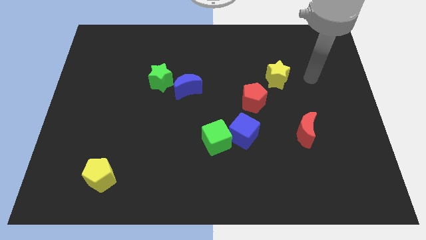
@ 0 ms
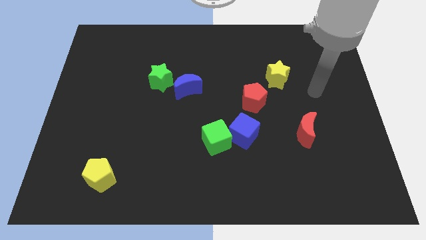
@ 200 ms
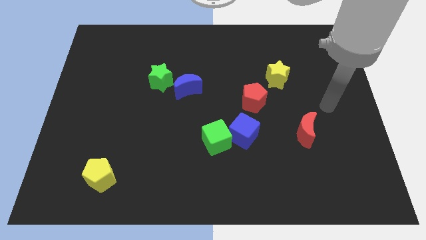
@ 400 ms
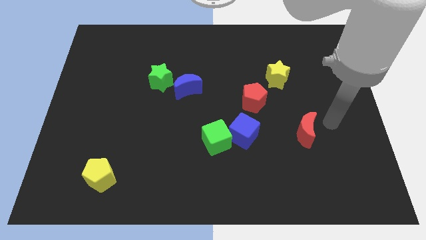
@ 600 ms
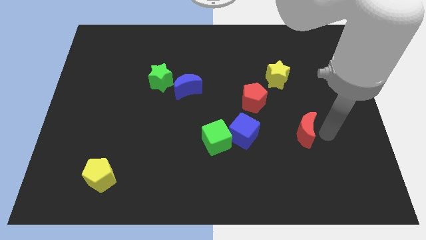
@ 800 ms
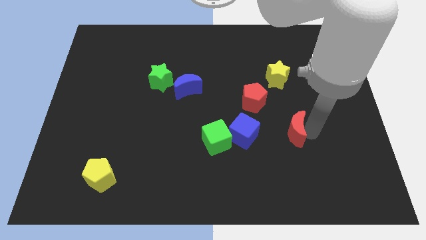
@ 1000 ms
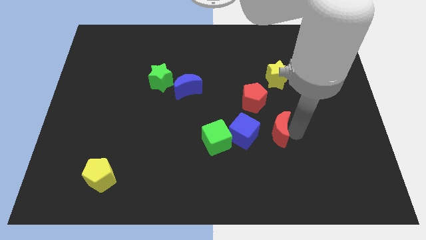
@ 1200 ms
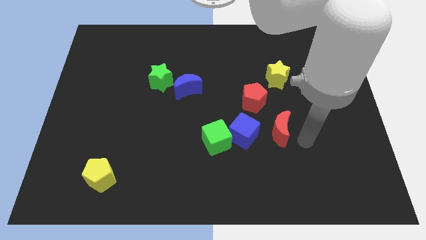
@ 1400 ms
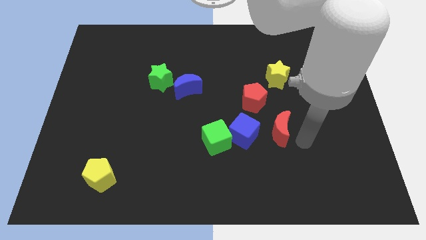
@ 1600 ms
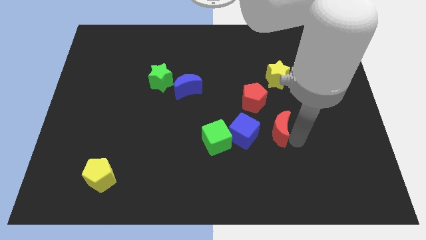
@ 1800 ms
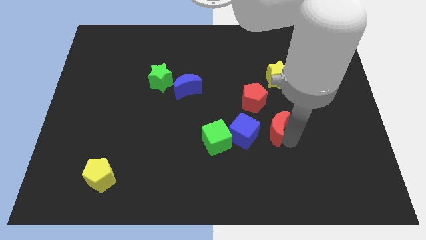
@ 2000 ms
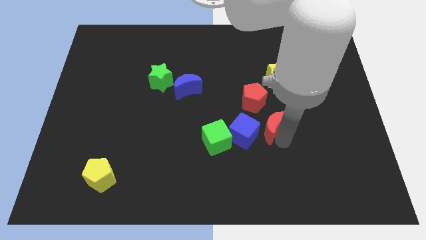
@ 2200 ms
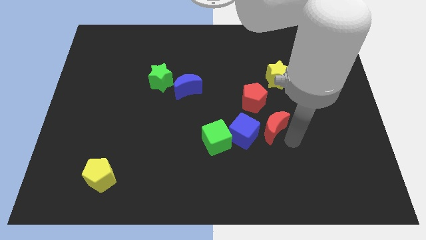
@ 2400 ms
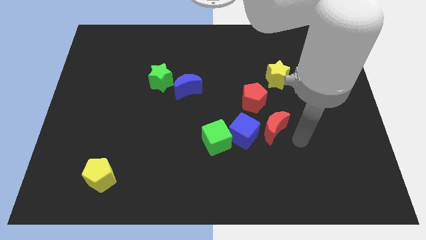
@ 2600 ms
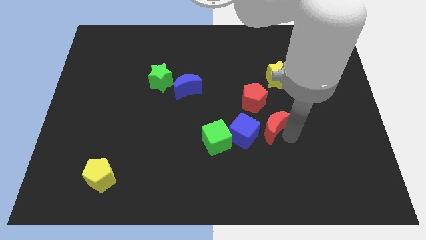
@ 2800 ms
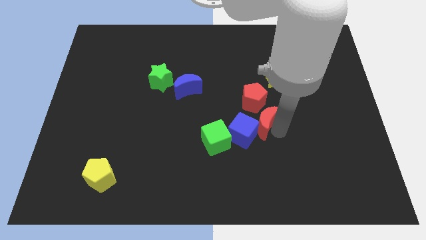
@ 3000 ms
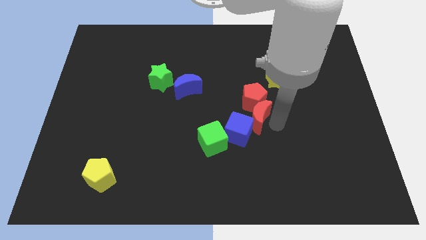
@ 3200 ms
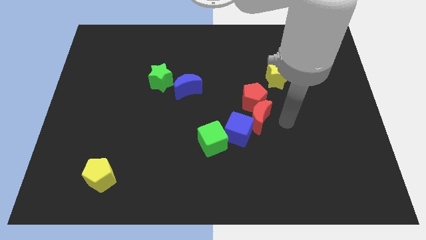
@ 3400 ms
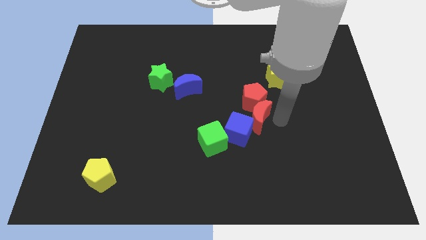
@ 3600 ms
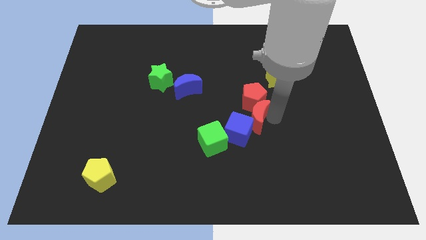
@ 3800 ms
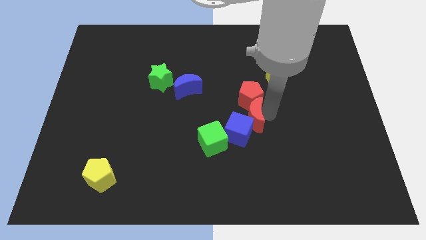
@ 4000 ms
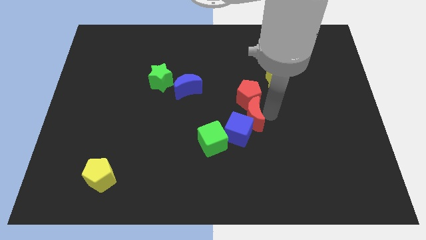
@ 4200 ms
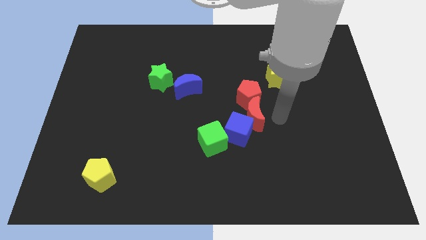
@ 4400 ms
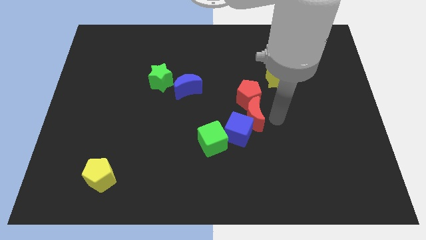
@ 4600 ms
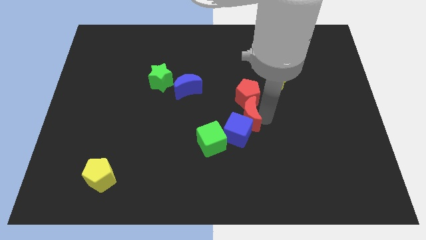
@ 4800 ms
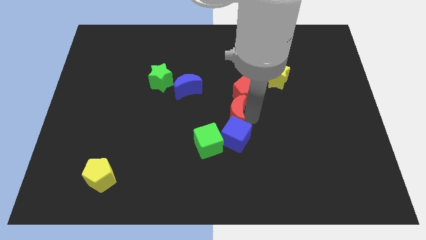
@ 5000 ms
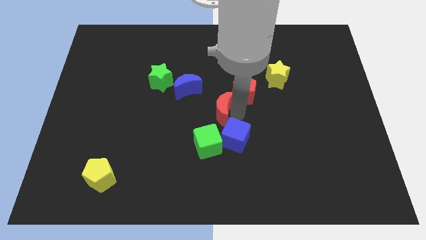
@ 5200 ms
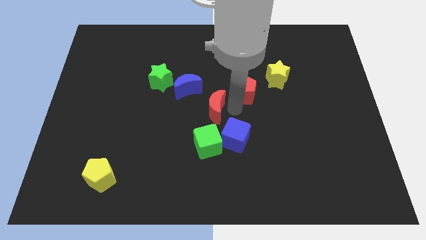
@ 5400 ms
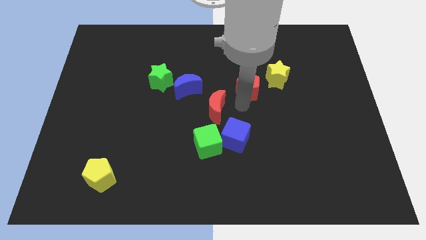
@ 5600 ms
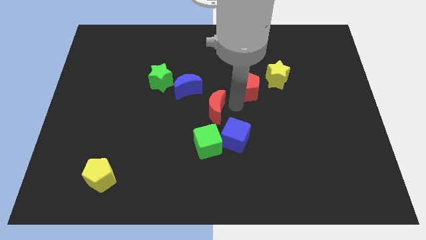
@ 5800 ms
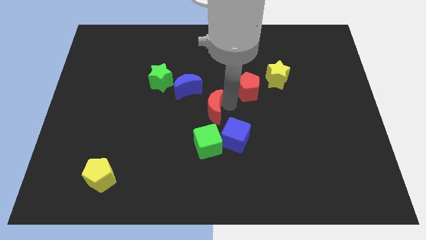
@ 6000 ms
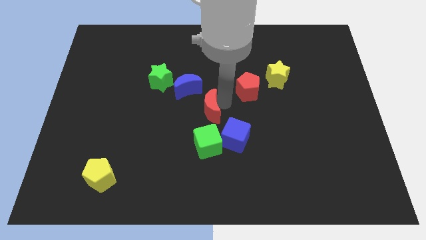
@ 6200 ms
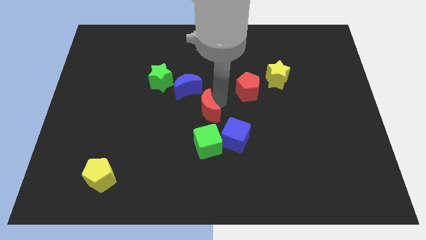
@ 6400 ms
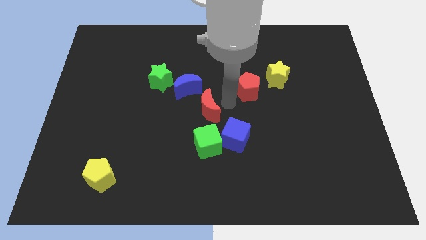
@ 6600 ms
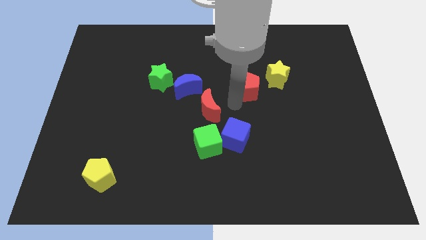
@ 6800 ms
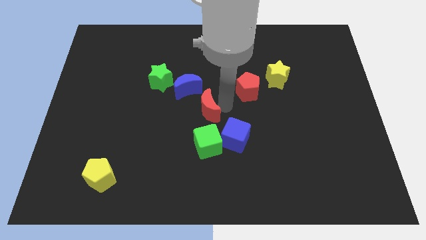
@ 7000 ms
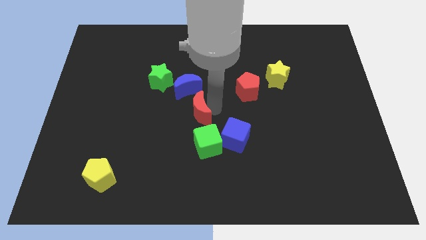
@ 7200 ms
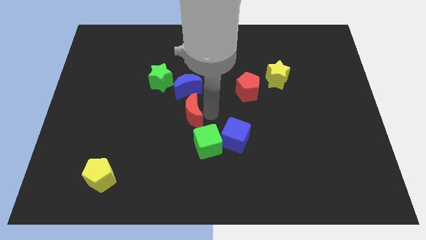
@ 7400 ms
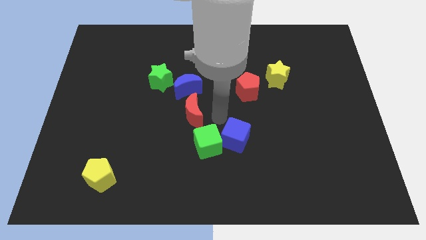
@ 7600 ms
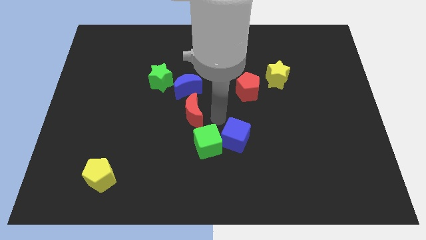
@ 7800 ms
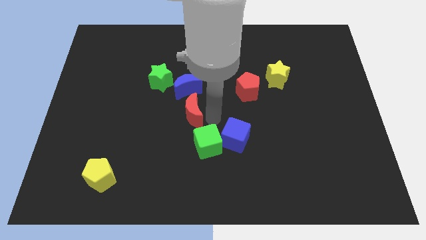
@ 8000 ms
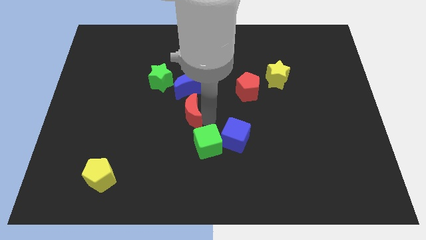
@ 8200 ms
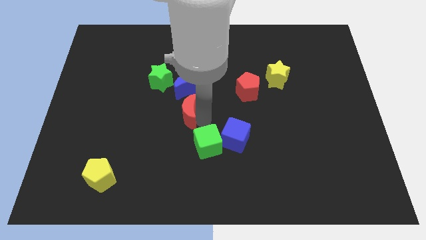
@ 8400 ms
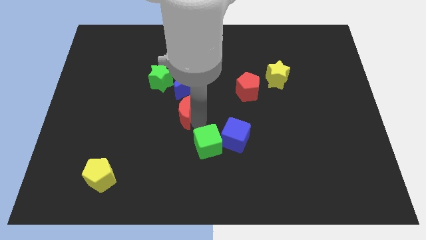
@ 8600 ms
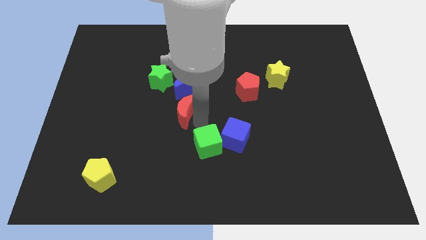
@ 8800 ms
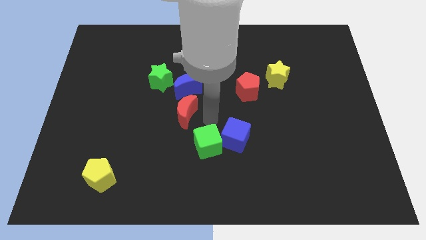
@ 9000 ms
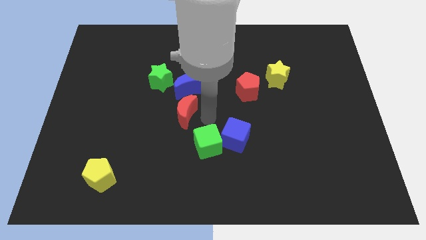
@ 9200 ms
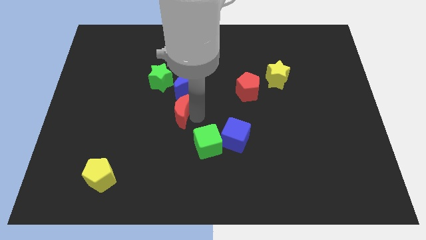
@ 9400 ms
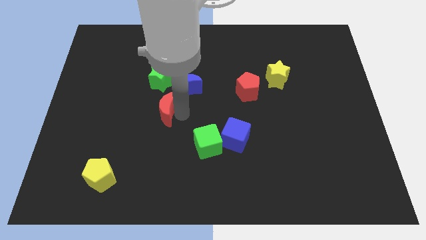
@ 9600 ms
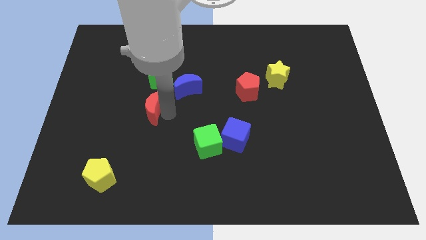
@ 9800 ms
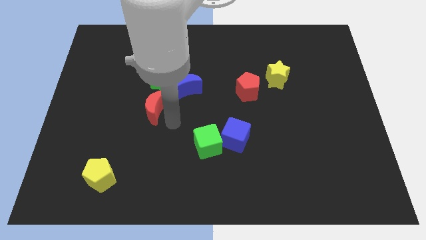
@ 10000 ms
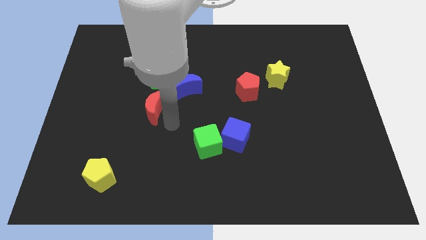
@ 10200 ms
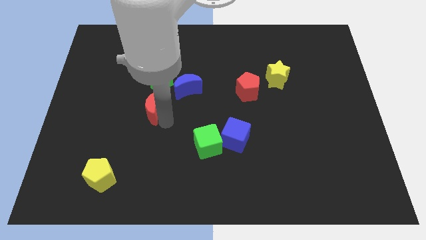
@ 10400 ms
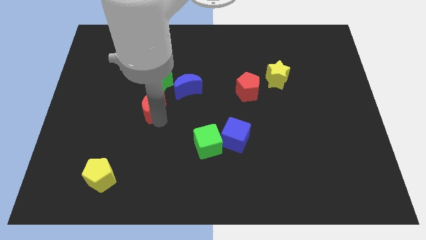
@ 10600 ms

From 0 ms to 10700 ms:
move the red moon diagonally down and to the left of the green star
